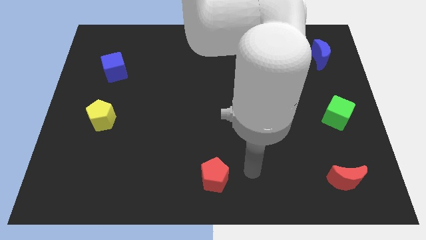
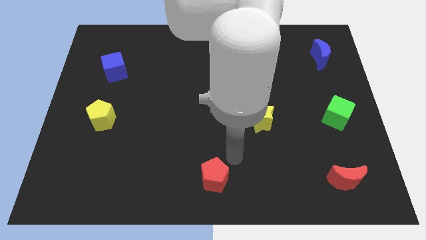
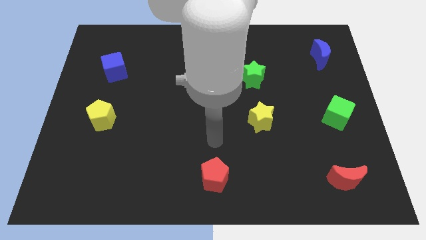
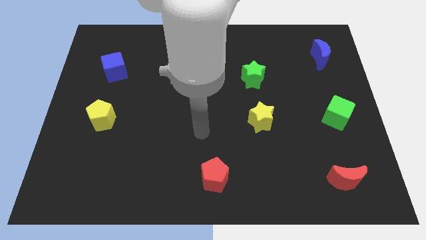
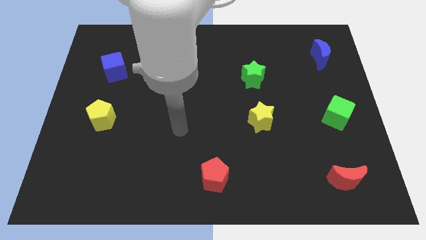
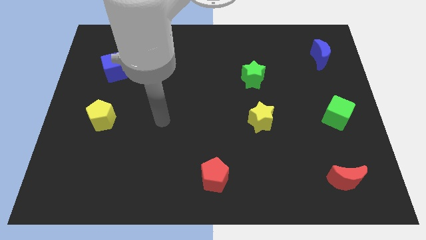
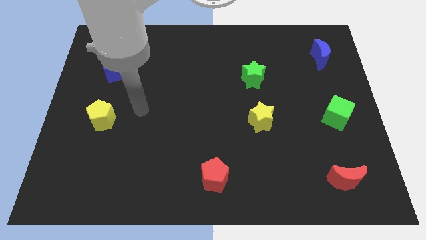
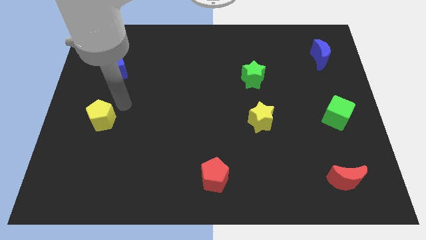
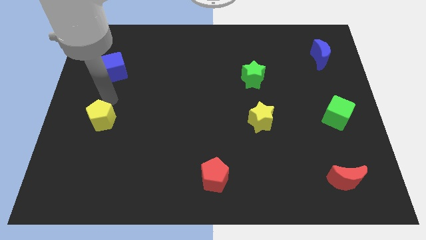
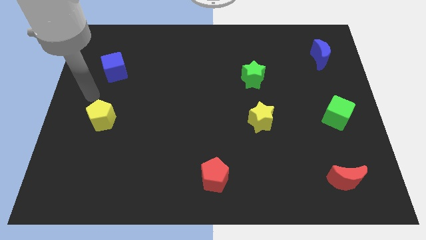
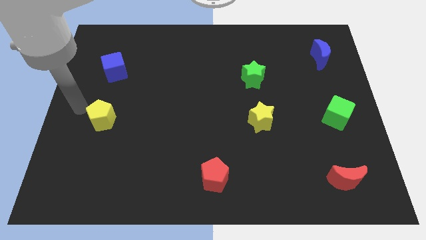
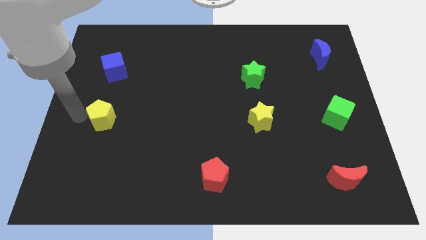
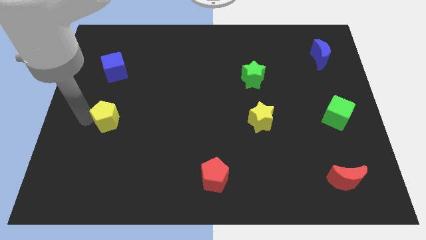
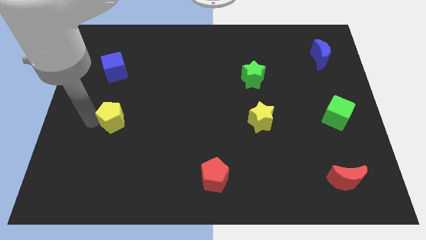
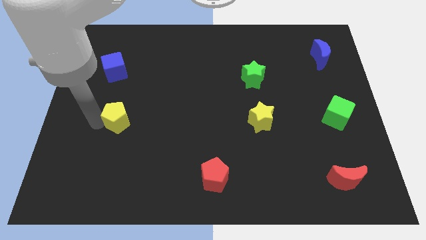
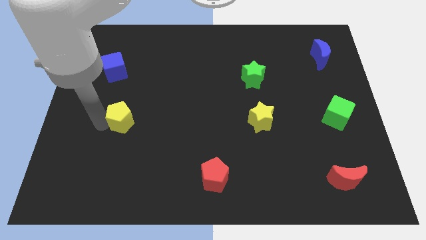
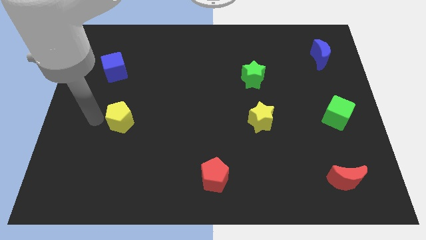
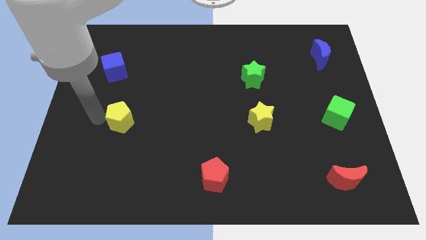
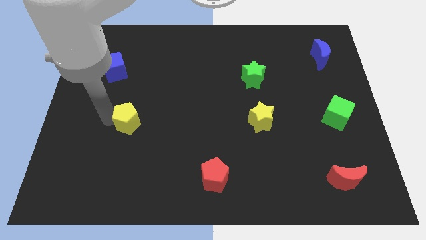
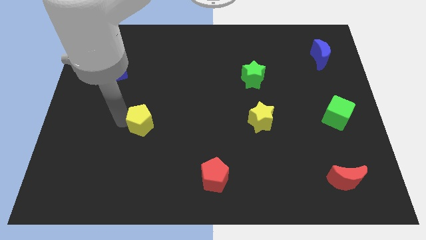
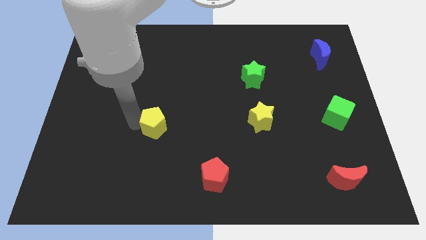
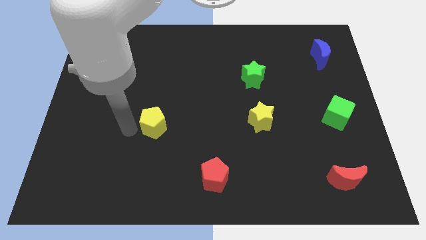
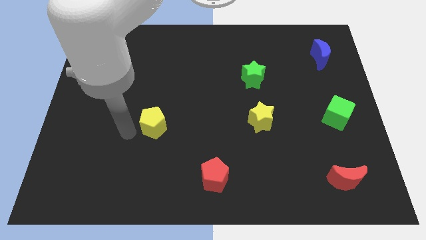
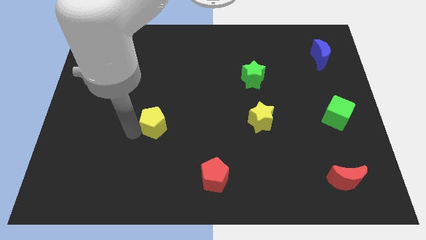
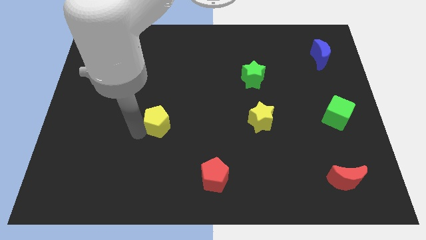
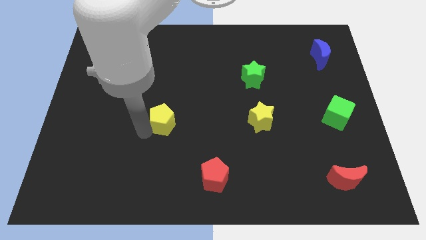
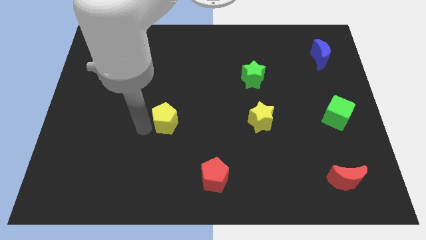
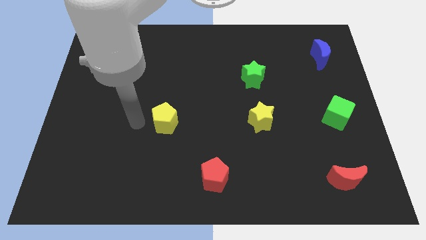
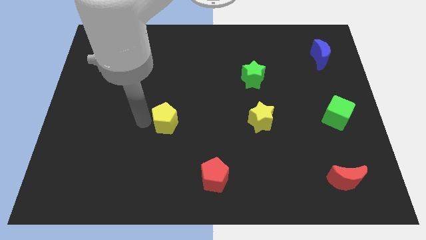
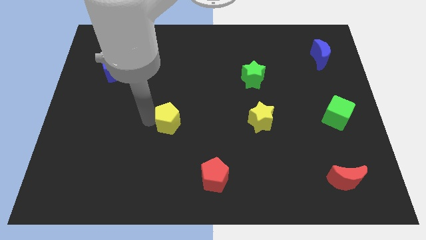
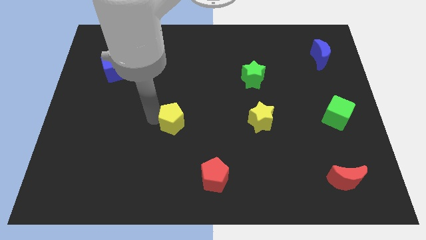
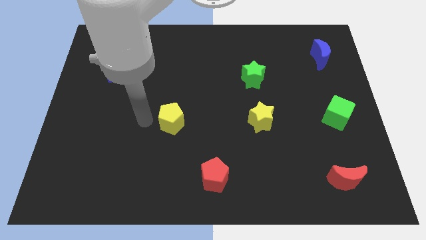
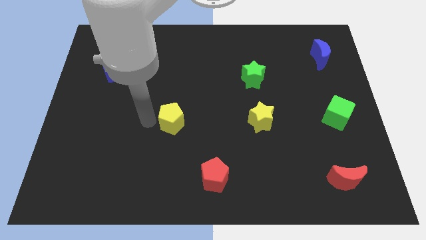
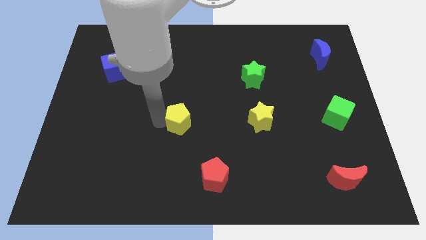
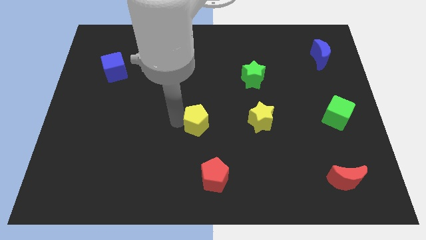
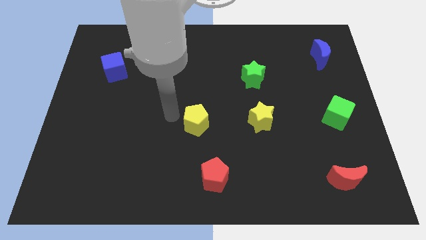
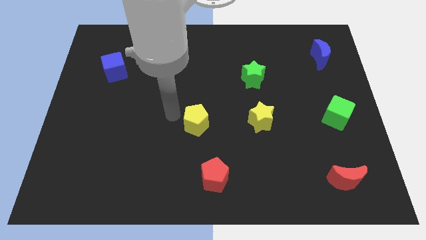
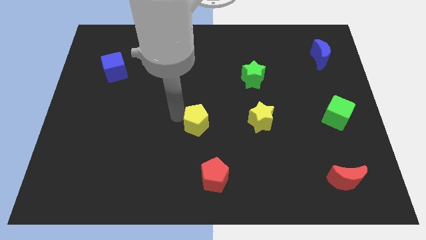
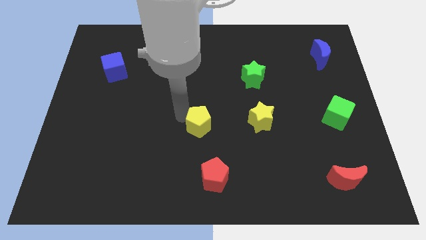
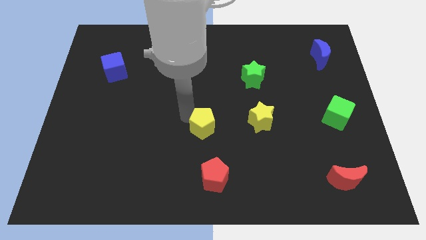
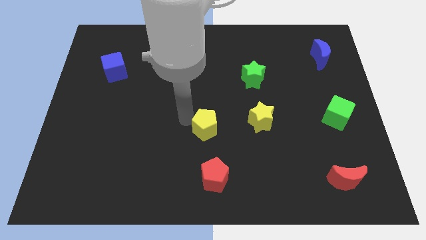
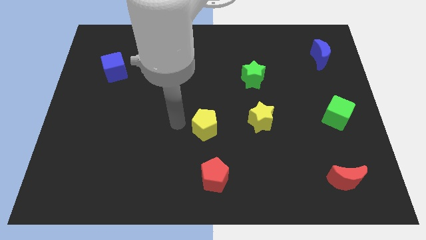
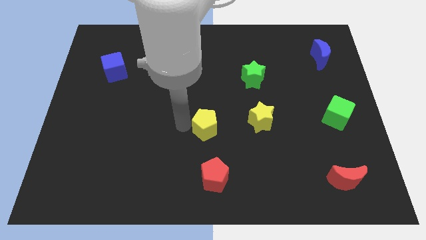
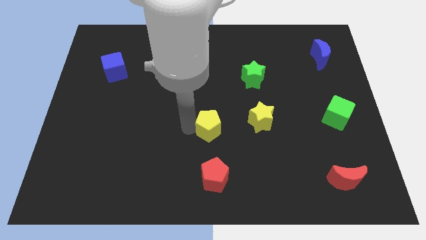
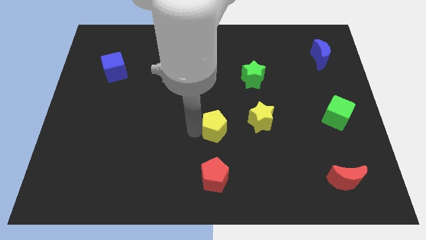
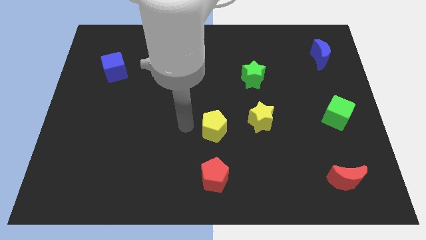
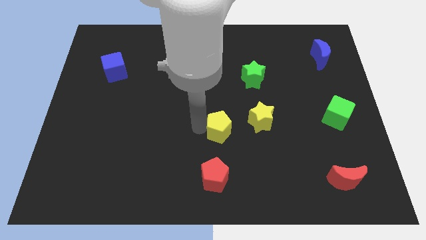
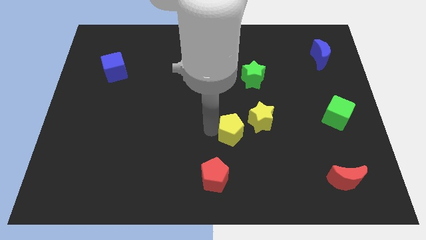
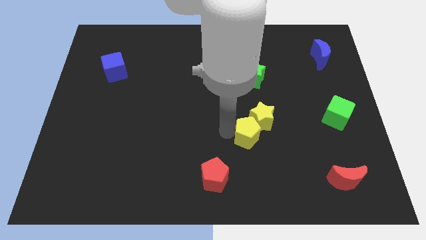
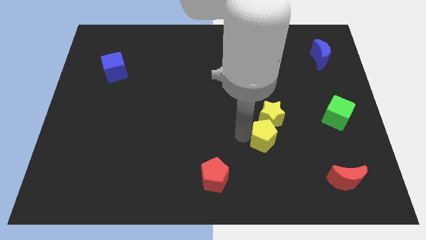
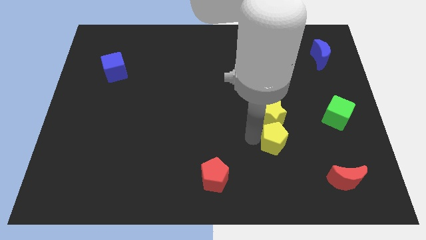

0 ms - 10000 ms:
put the yellow pentagon to the bottom right of the yellow star

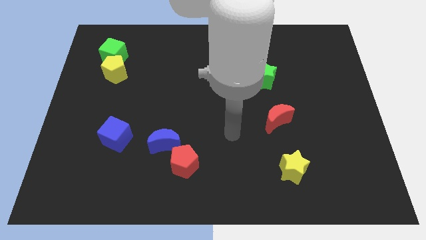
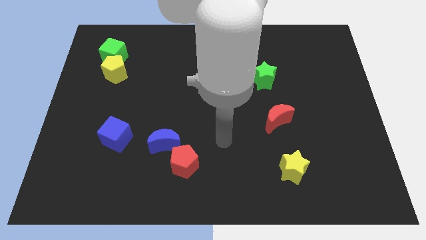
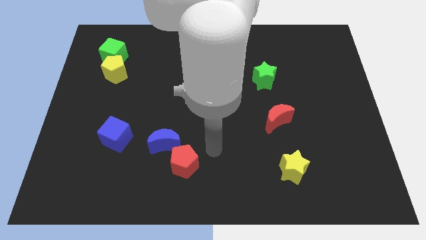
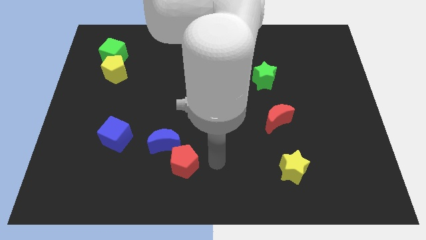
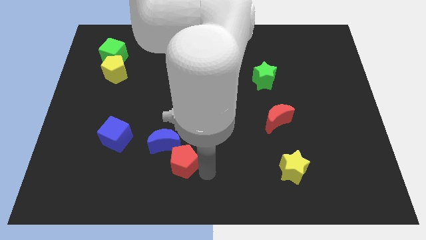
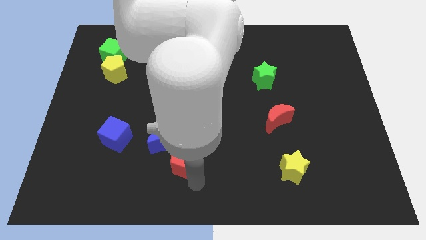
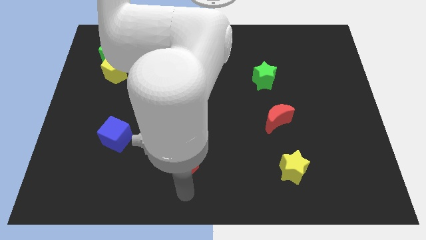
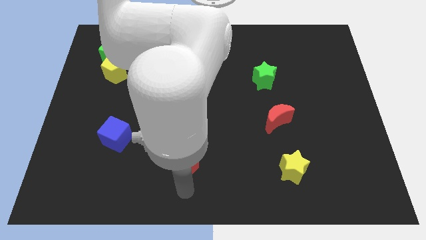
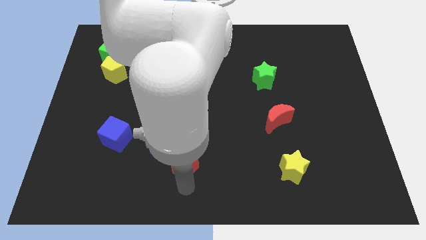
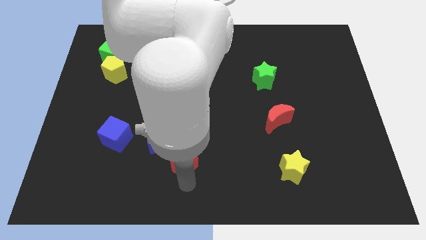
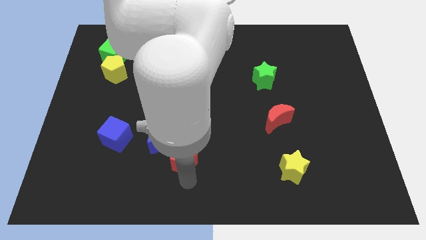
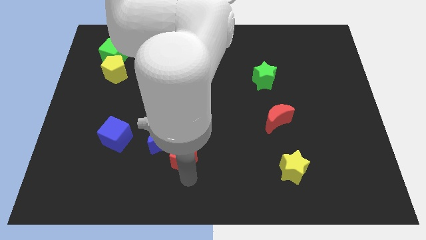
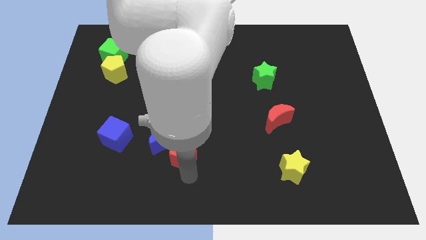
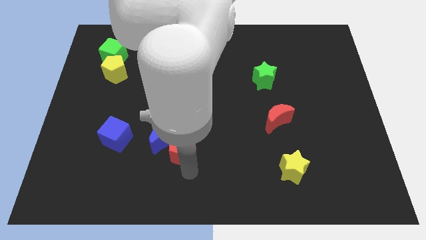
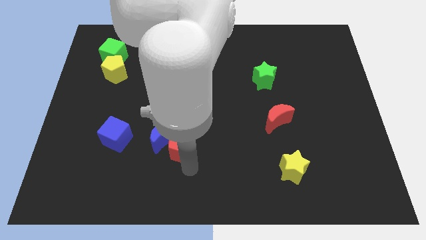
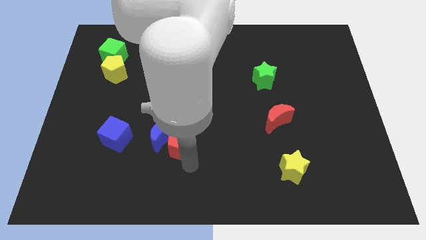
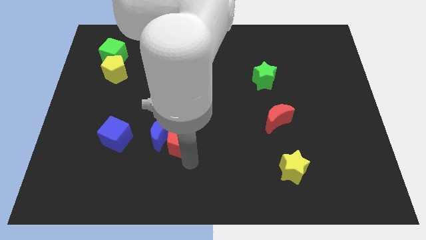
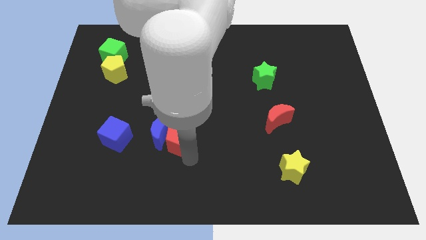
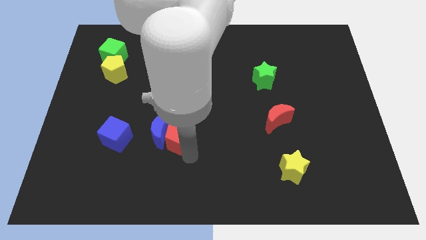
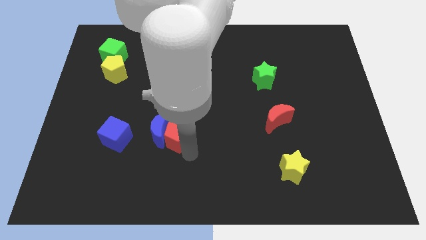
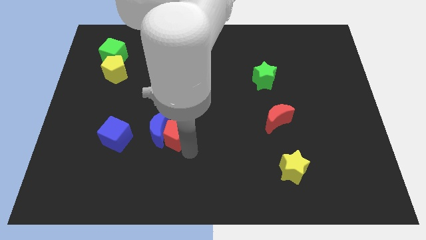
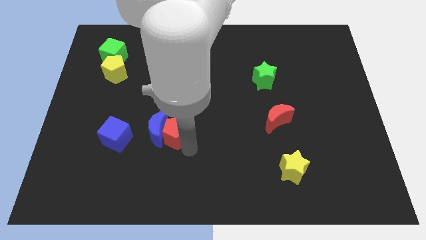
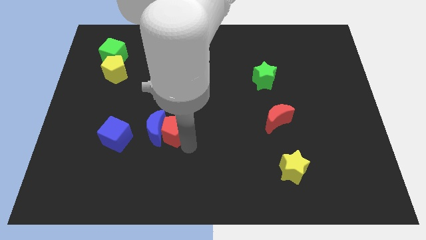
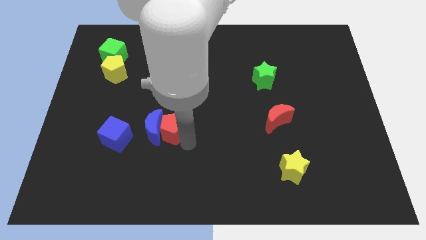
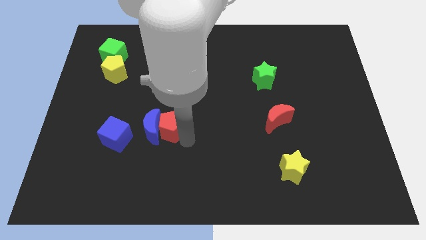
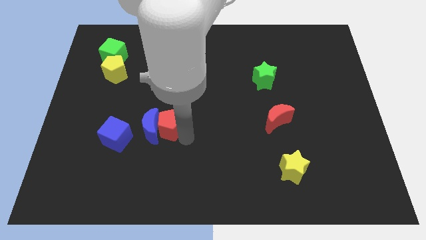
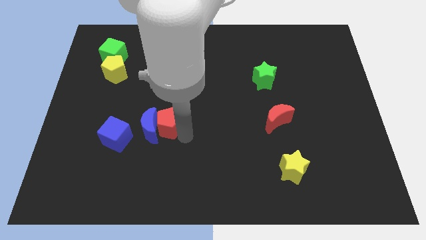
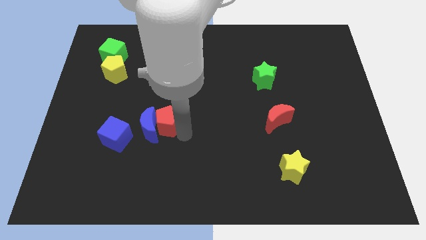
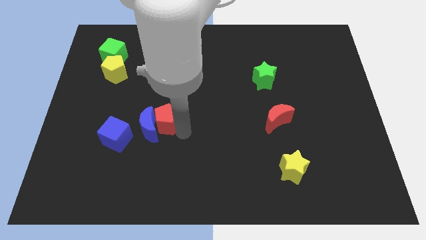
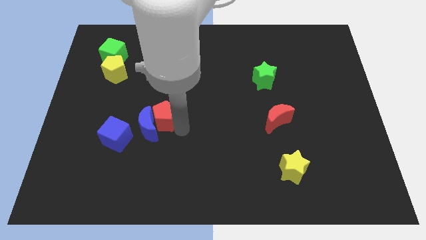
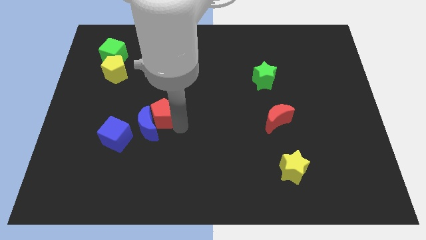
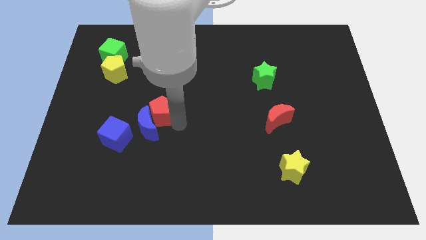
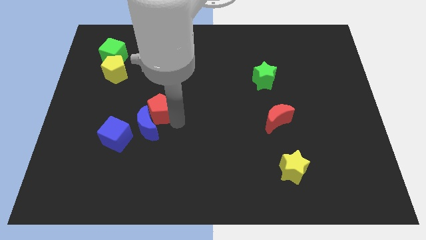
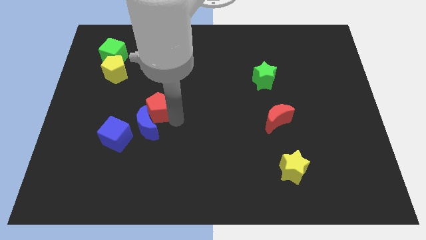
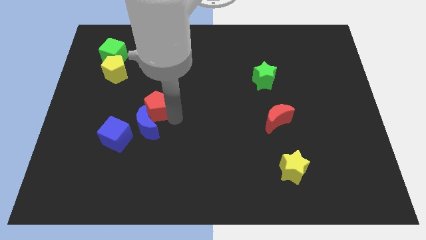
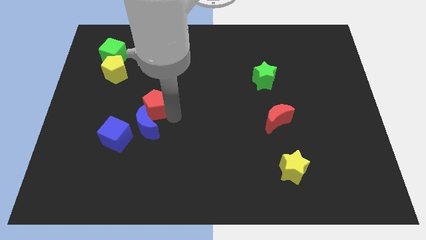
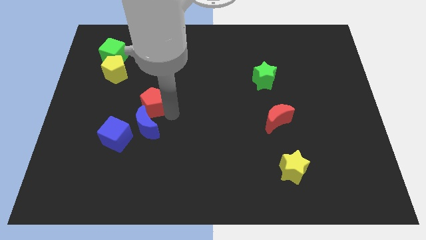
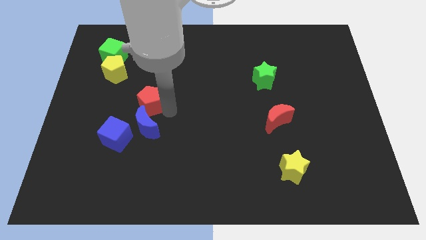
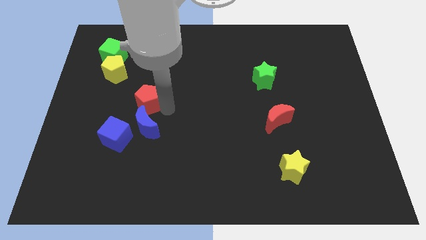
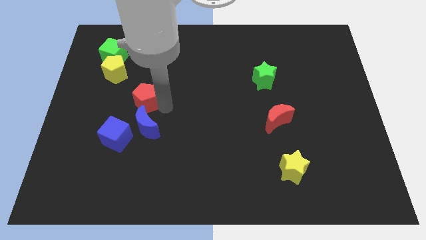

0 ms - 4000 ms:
put the red pentagon diagonally down and to the right of the yellow pentagon
